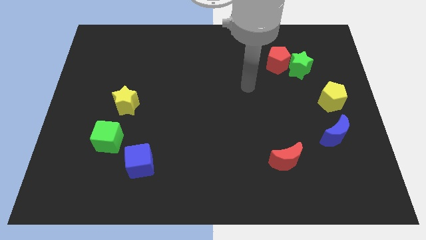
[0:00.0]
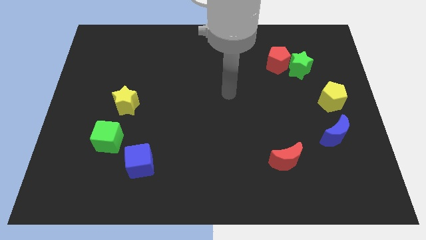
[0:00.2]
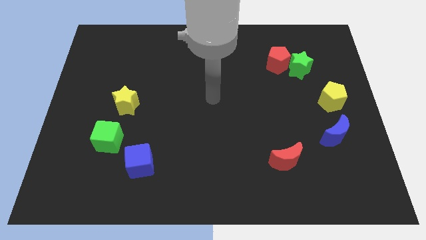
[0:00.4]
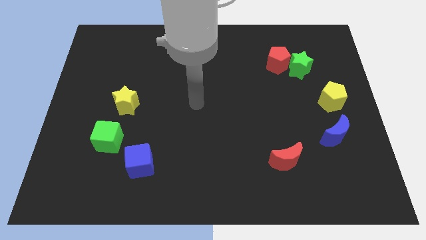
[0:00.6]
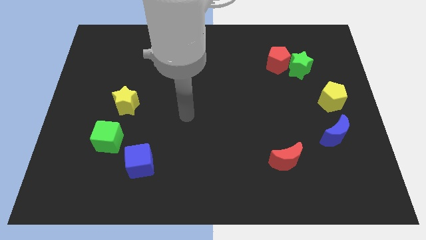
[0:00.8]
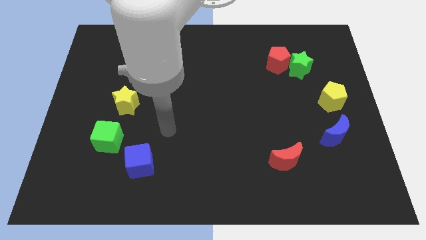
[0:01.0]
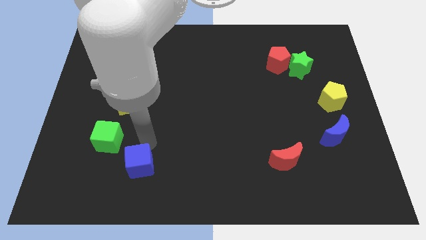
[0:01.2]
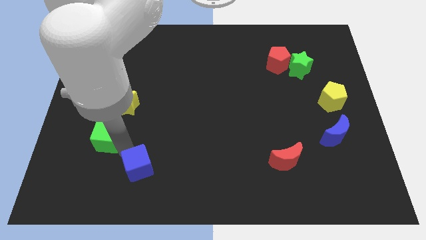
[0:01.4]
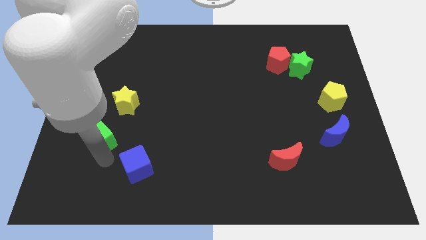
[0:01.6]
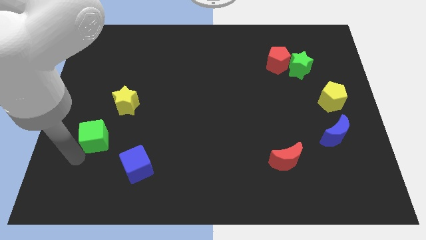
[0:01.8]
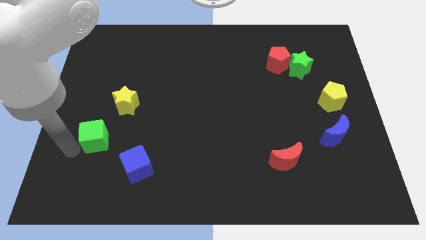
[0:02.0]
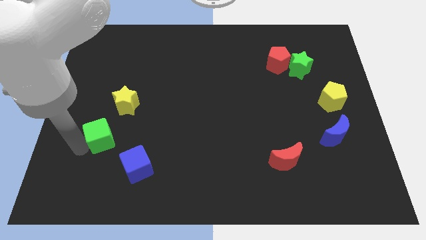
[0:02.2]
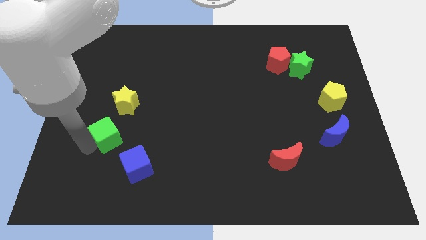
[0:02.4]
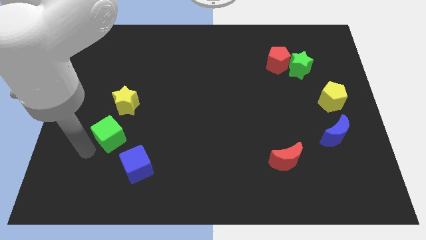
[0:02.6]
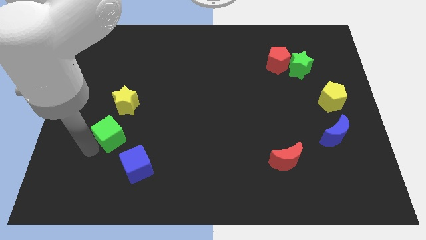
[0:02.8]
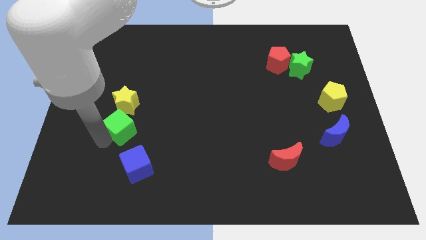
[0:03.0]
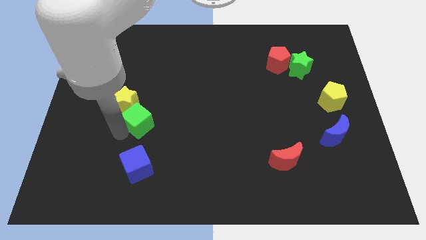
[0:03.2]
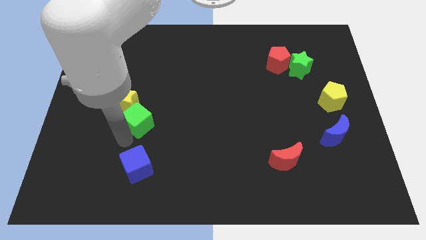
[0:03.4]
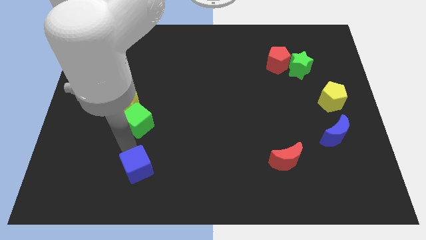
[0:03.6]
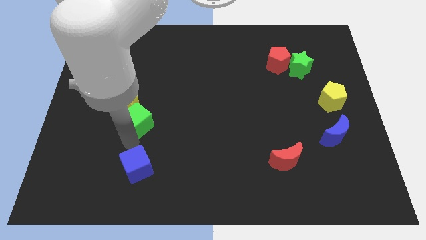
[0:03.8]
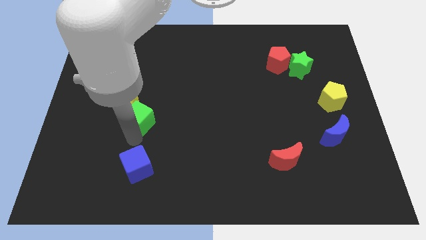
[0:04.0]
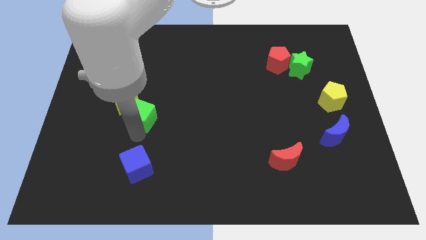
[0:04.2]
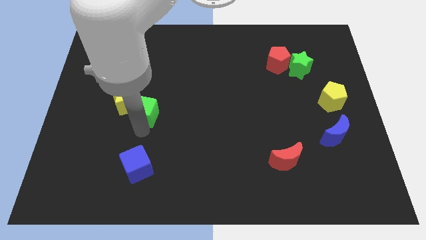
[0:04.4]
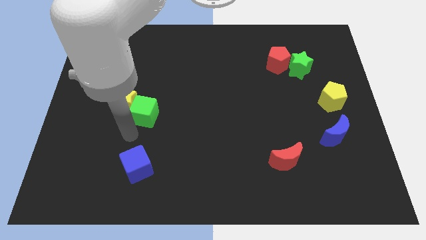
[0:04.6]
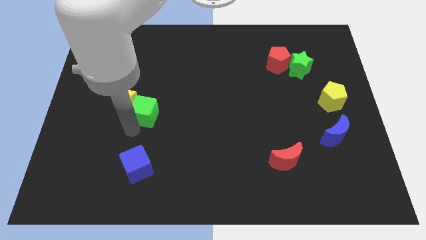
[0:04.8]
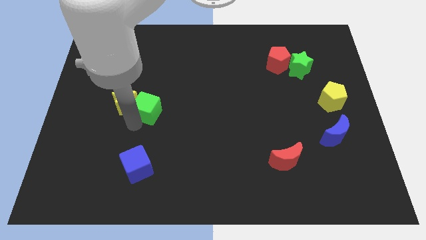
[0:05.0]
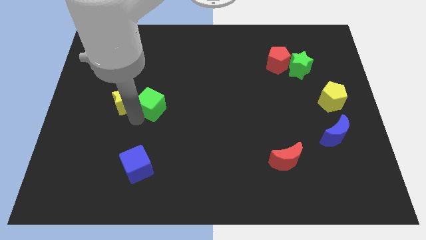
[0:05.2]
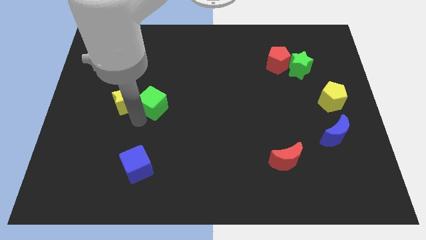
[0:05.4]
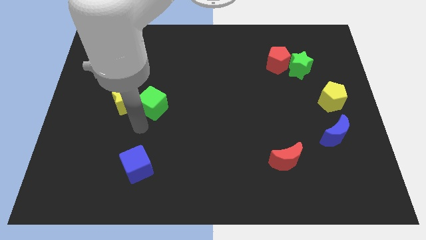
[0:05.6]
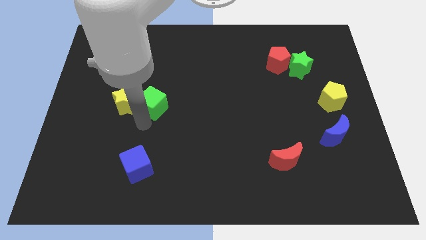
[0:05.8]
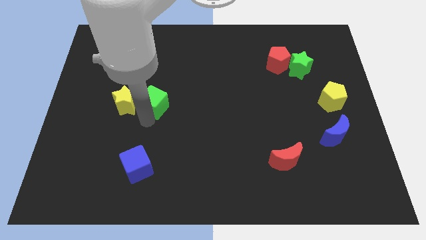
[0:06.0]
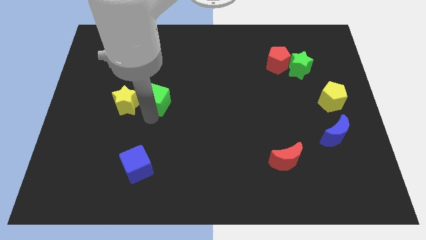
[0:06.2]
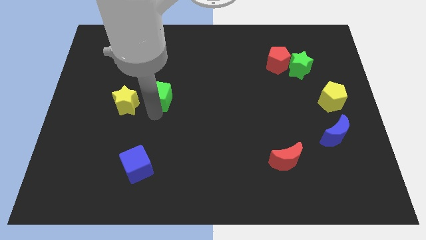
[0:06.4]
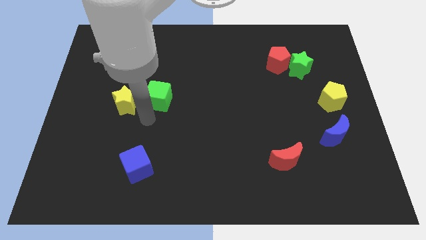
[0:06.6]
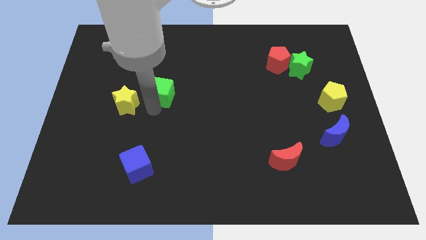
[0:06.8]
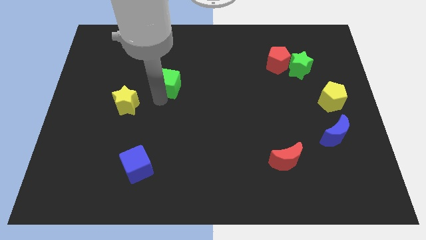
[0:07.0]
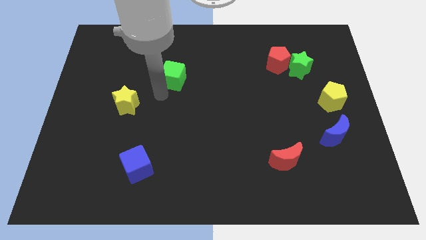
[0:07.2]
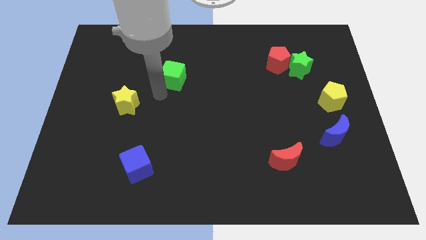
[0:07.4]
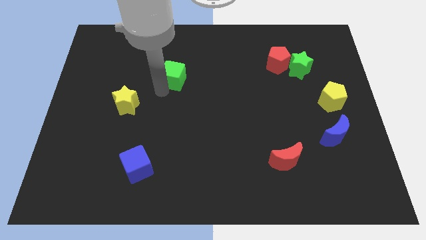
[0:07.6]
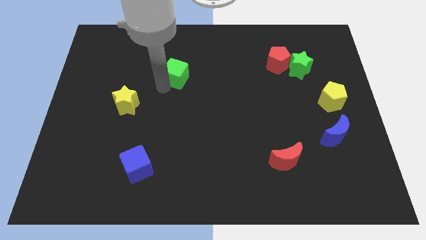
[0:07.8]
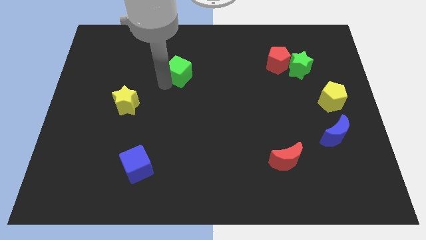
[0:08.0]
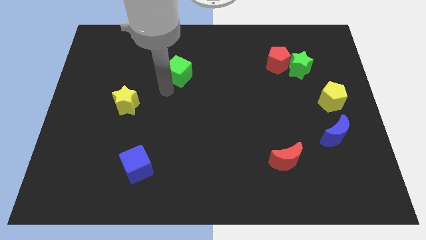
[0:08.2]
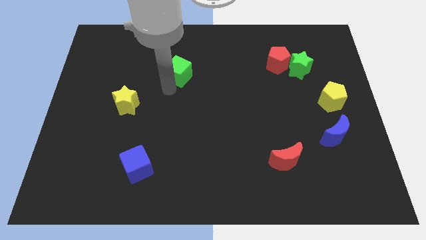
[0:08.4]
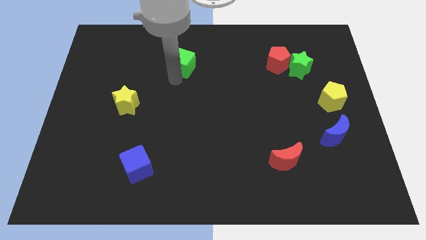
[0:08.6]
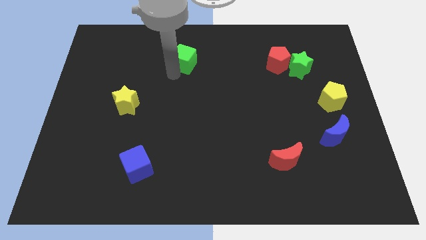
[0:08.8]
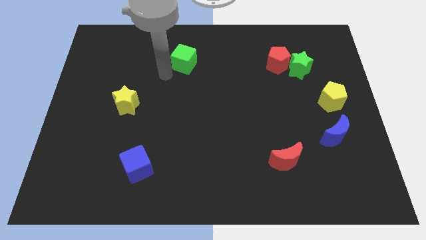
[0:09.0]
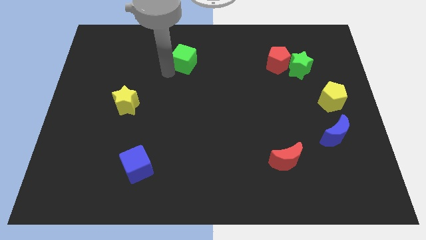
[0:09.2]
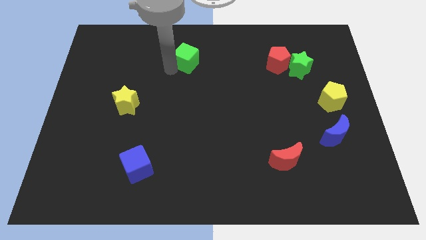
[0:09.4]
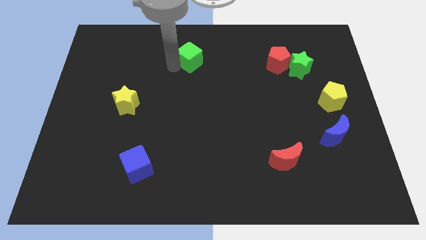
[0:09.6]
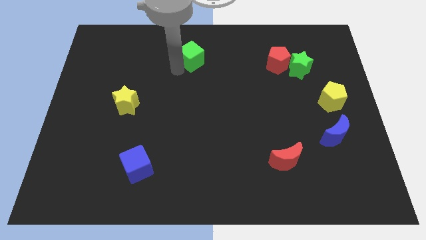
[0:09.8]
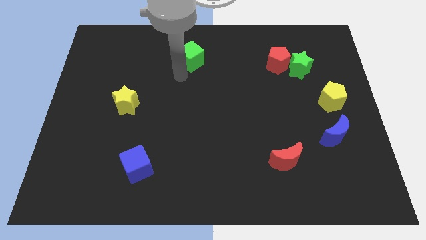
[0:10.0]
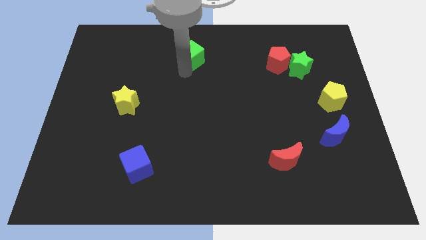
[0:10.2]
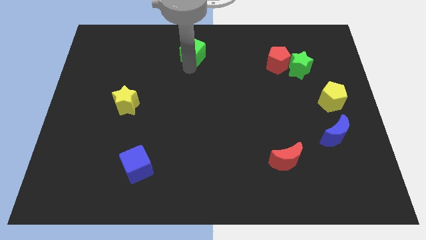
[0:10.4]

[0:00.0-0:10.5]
move the green cube to the top

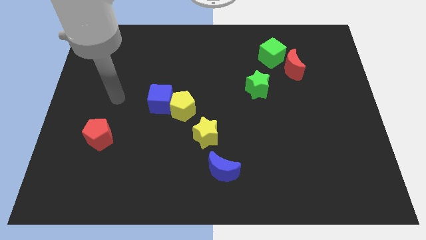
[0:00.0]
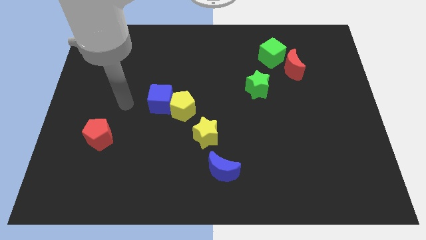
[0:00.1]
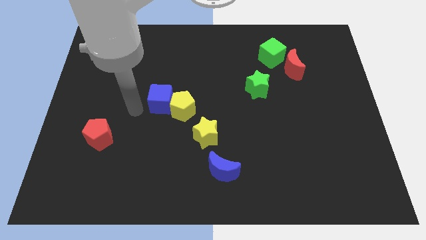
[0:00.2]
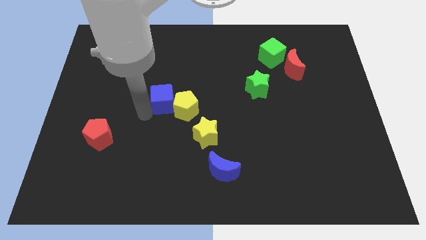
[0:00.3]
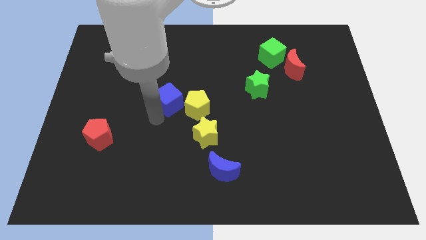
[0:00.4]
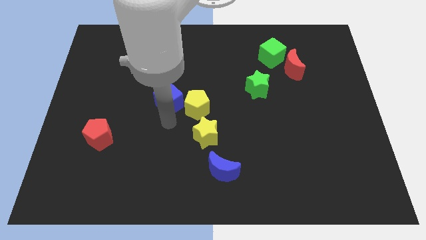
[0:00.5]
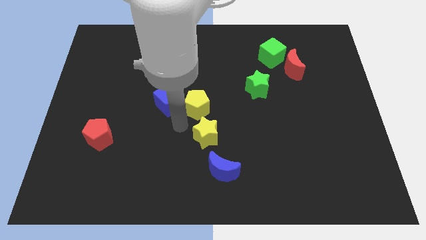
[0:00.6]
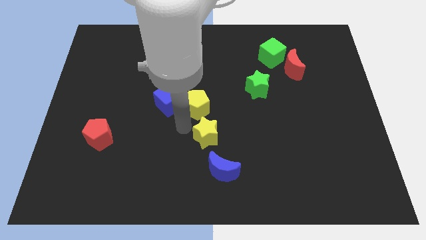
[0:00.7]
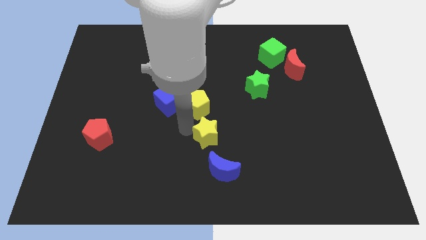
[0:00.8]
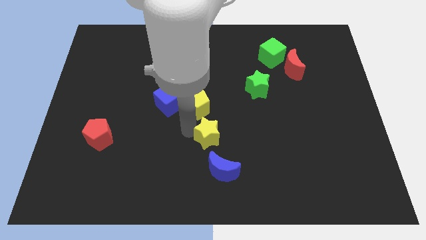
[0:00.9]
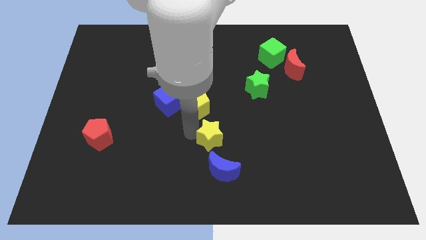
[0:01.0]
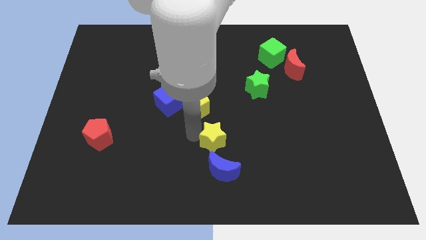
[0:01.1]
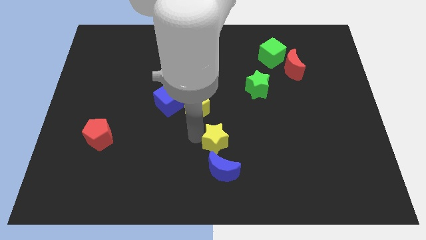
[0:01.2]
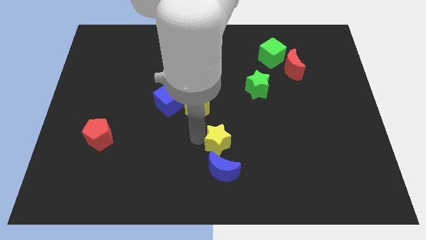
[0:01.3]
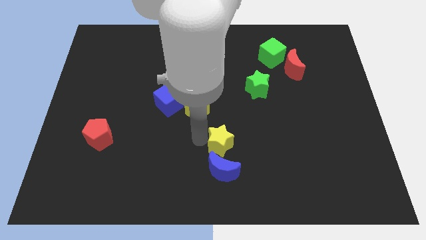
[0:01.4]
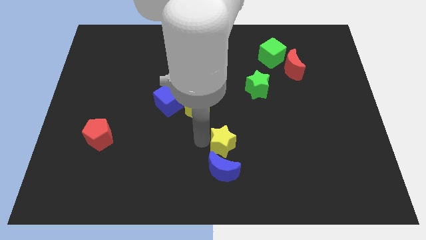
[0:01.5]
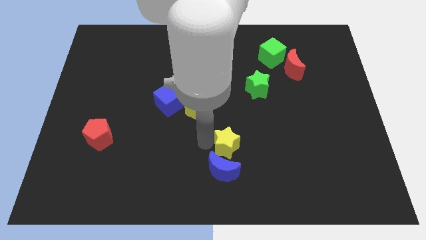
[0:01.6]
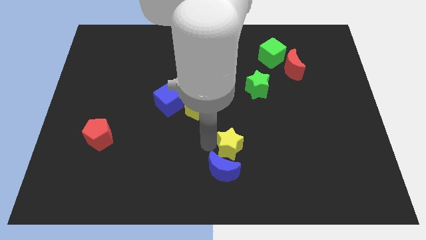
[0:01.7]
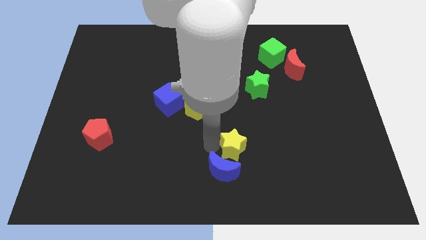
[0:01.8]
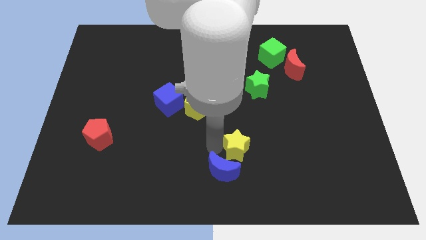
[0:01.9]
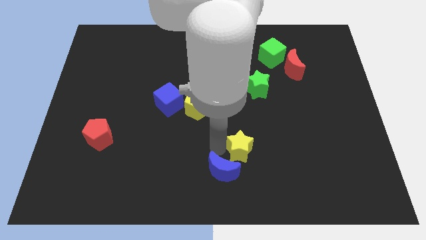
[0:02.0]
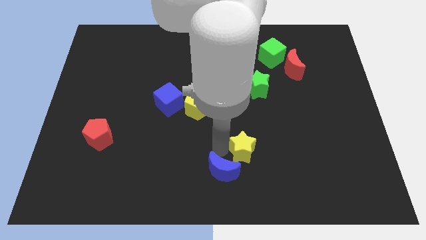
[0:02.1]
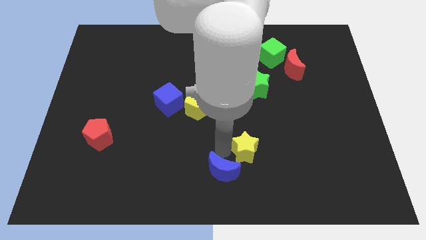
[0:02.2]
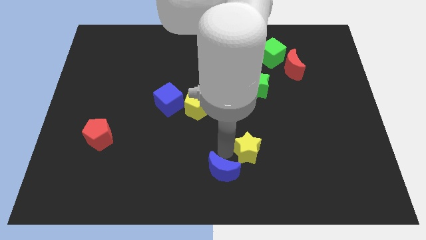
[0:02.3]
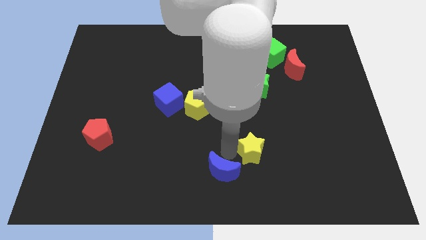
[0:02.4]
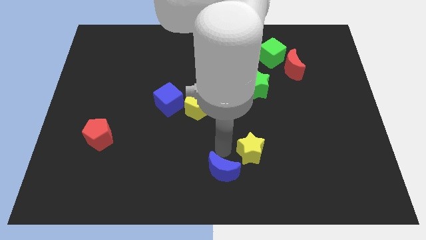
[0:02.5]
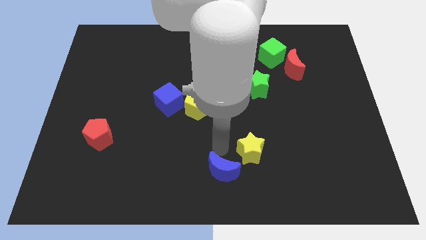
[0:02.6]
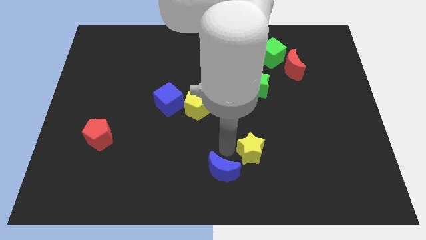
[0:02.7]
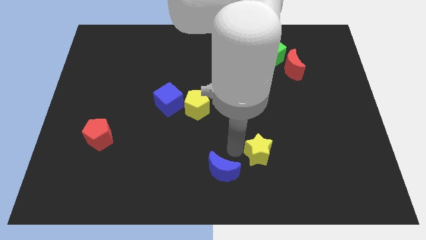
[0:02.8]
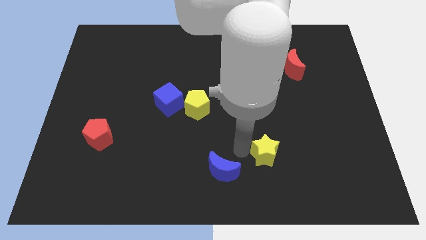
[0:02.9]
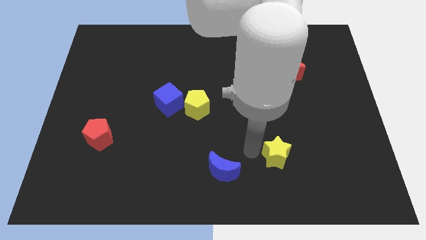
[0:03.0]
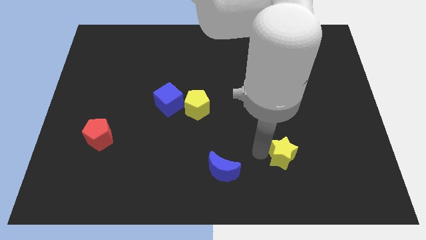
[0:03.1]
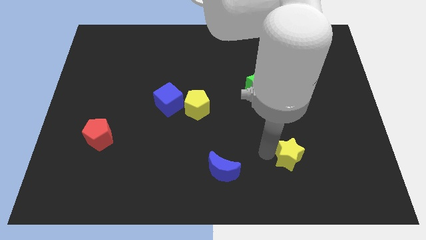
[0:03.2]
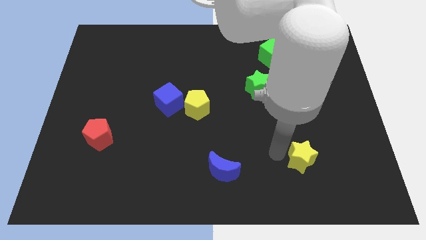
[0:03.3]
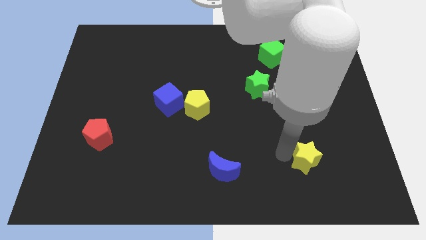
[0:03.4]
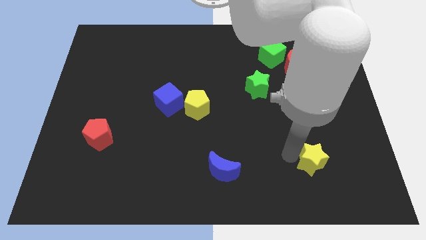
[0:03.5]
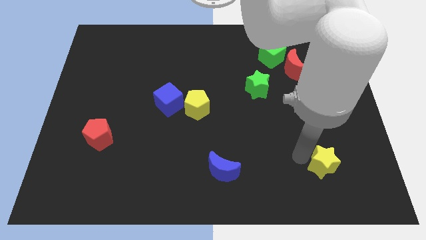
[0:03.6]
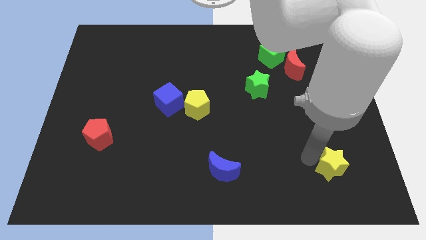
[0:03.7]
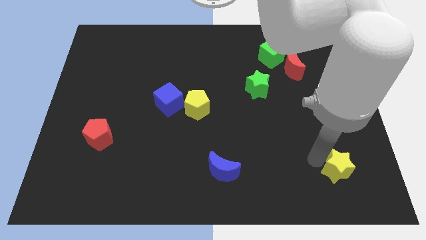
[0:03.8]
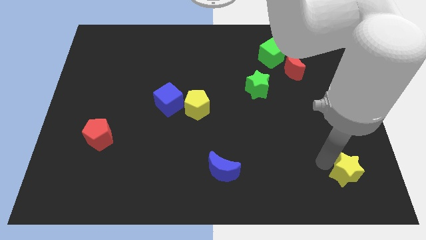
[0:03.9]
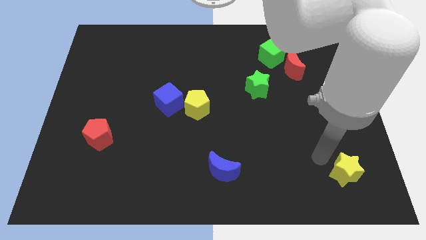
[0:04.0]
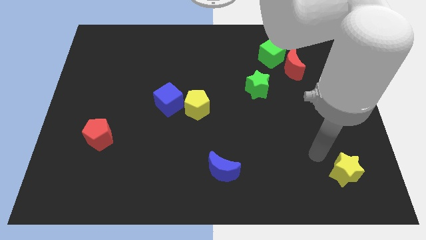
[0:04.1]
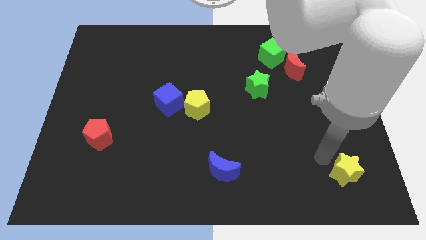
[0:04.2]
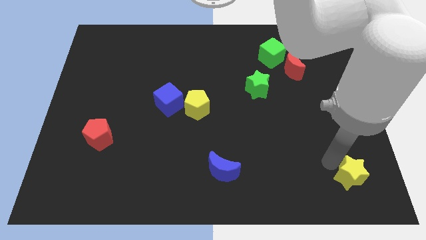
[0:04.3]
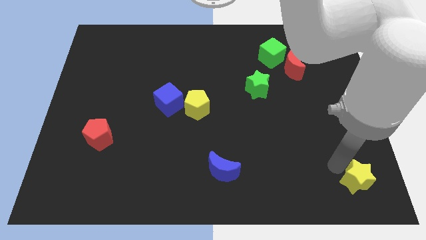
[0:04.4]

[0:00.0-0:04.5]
put the yellow star to the lower right corner
